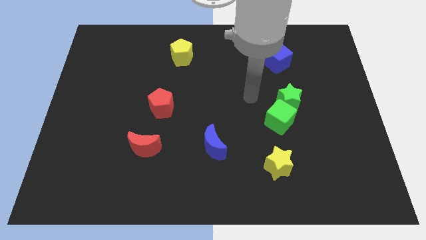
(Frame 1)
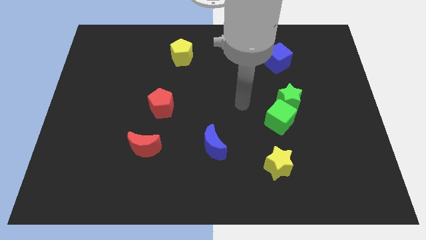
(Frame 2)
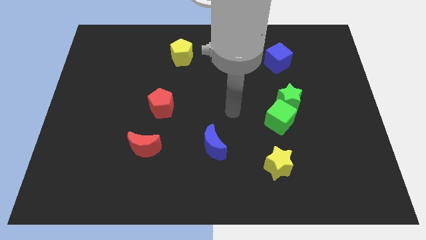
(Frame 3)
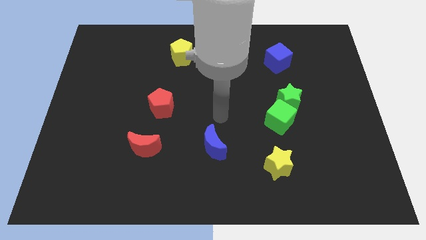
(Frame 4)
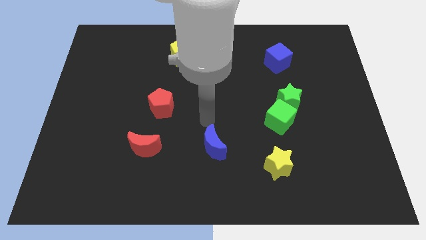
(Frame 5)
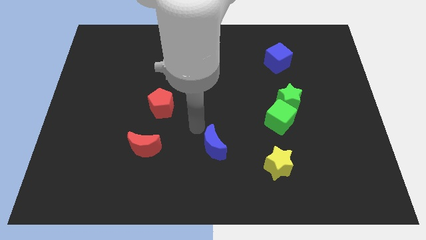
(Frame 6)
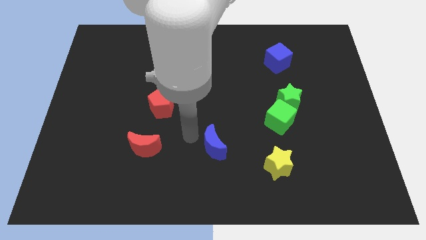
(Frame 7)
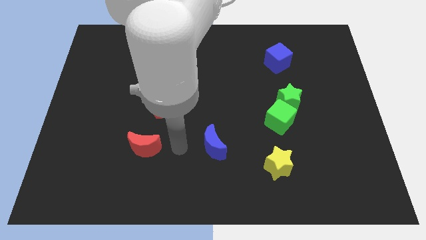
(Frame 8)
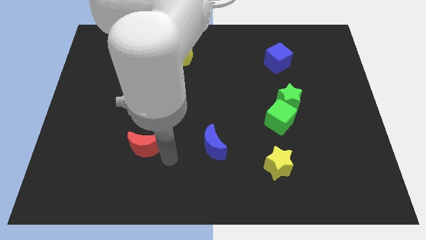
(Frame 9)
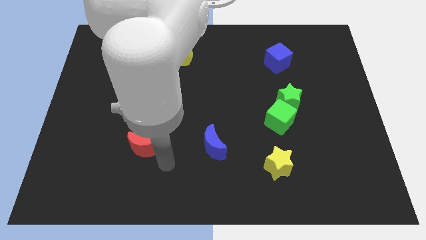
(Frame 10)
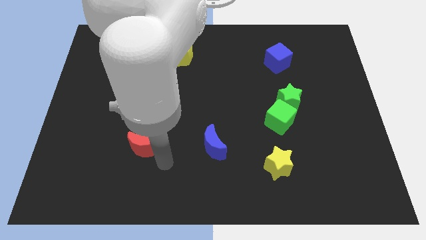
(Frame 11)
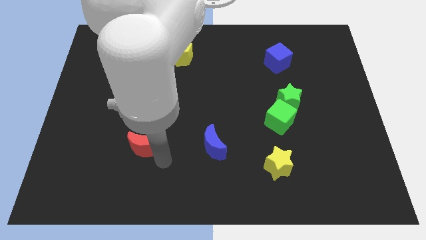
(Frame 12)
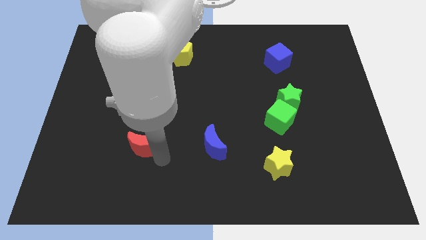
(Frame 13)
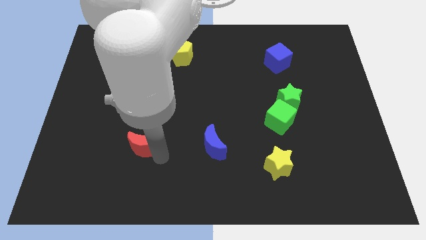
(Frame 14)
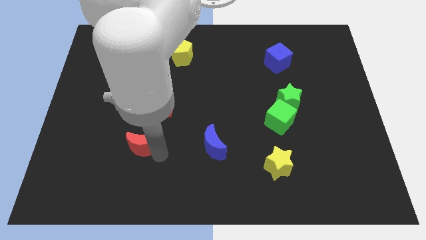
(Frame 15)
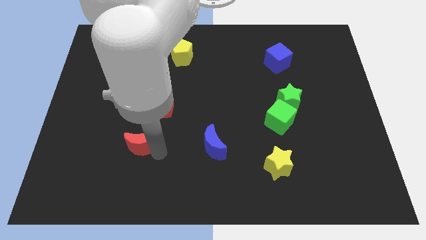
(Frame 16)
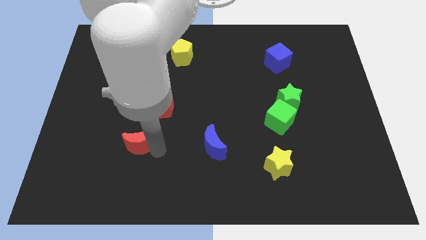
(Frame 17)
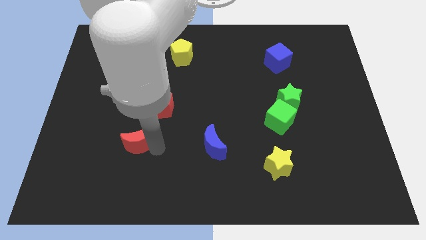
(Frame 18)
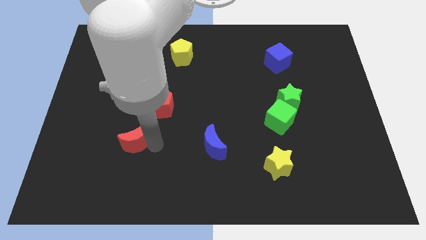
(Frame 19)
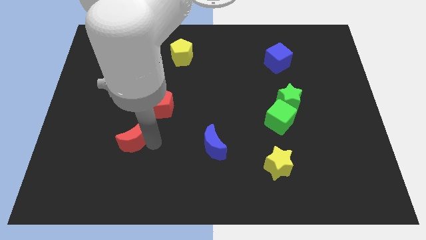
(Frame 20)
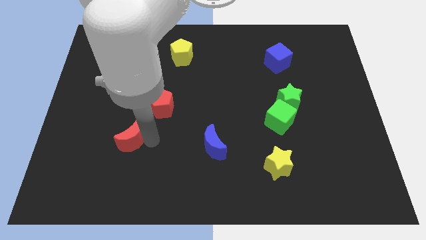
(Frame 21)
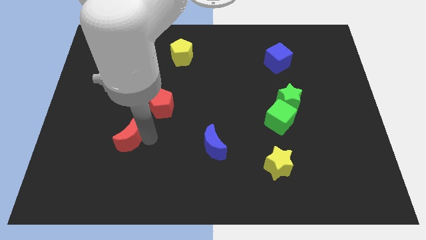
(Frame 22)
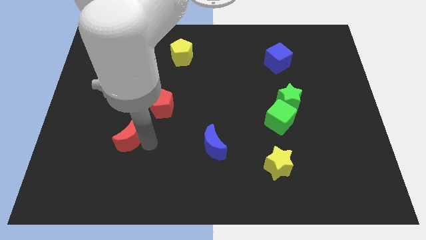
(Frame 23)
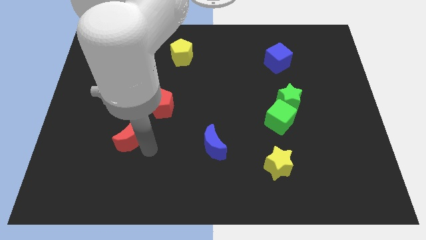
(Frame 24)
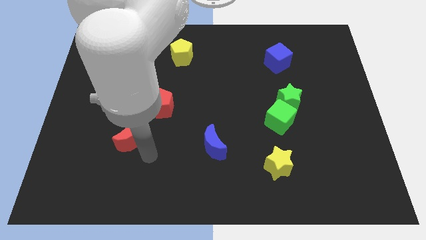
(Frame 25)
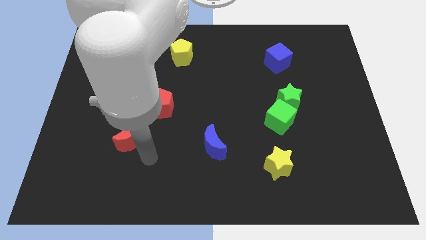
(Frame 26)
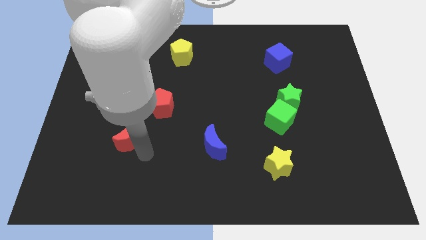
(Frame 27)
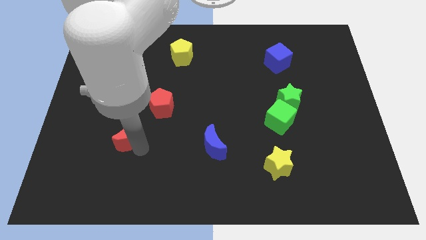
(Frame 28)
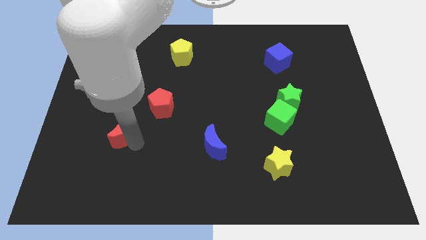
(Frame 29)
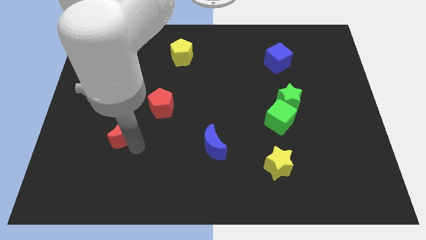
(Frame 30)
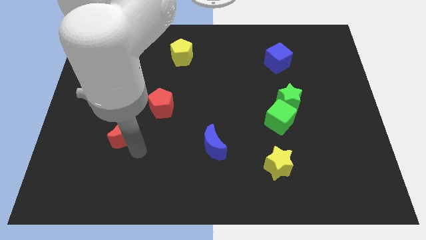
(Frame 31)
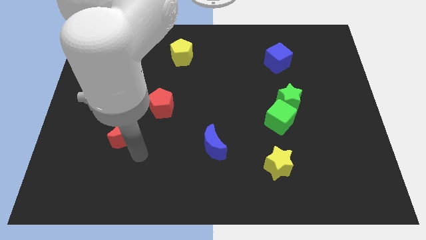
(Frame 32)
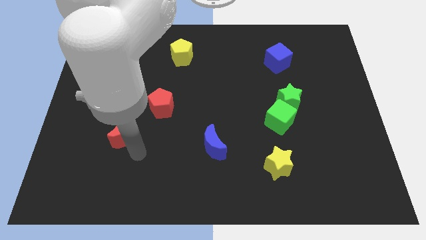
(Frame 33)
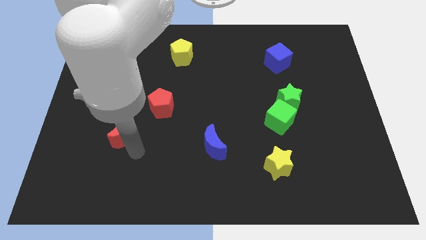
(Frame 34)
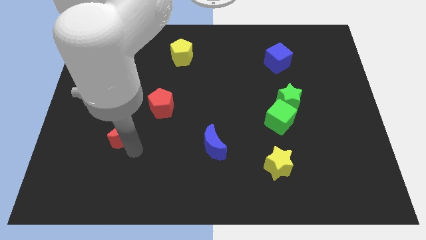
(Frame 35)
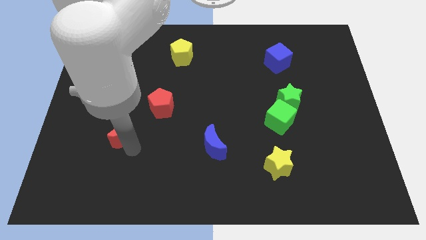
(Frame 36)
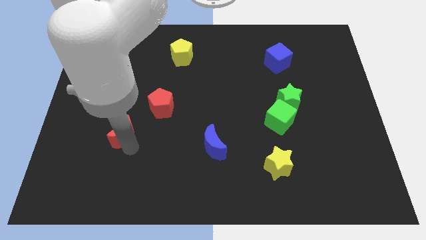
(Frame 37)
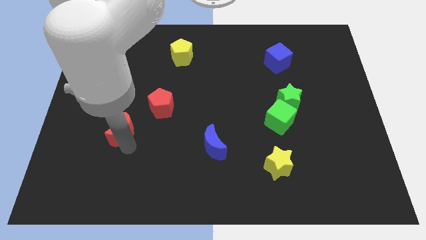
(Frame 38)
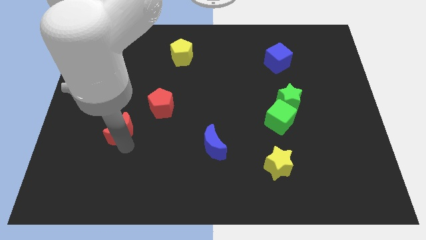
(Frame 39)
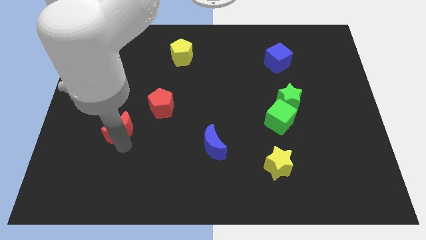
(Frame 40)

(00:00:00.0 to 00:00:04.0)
move the red moon slightly upwards and then to the left

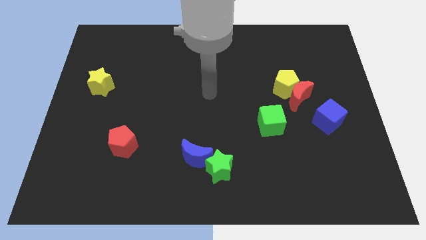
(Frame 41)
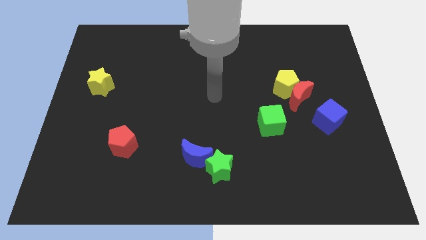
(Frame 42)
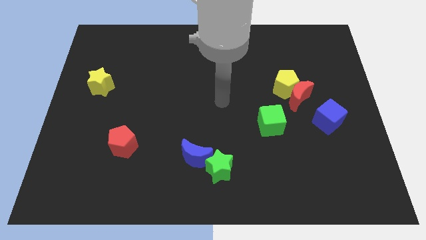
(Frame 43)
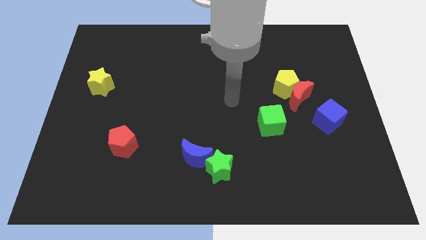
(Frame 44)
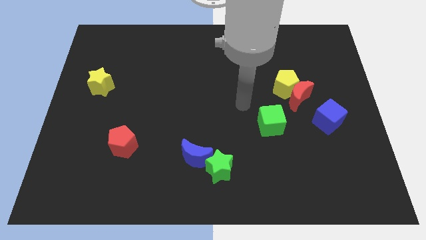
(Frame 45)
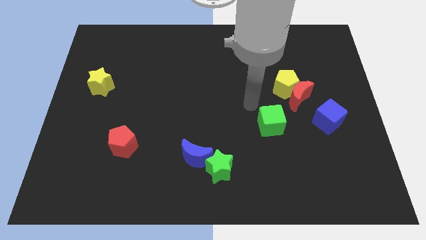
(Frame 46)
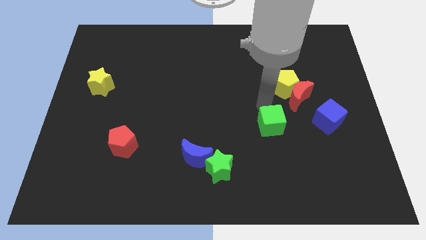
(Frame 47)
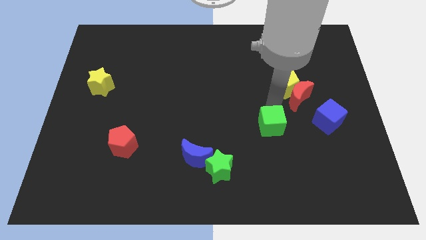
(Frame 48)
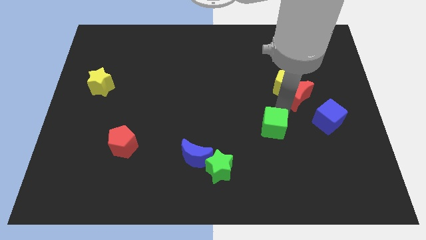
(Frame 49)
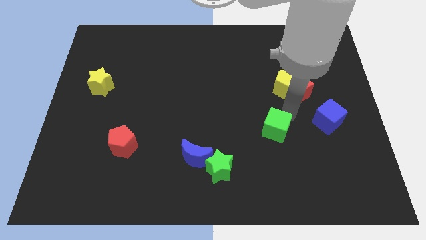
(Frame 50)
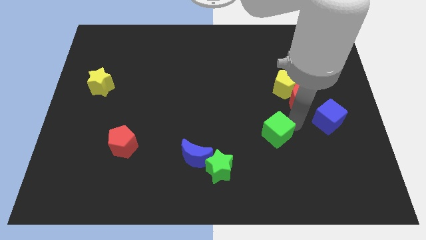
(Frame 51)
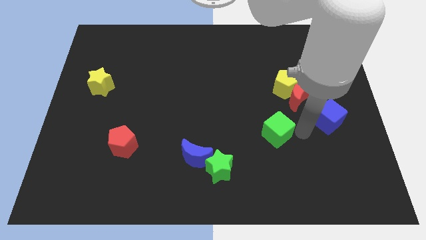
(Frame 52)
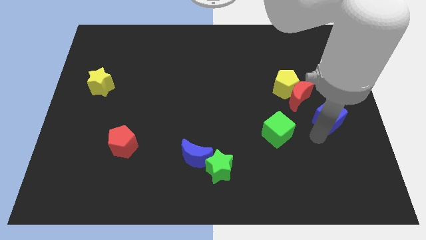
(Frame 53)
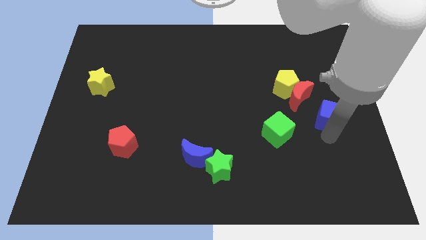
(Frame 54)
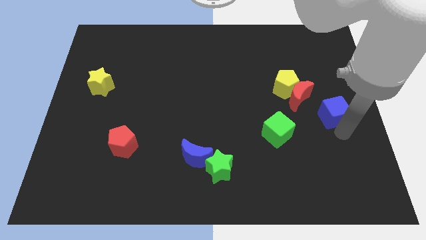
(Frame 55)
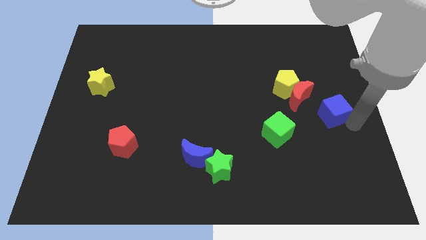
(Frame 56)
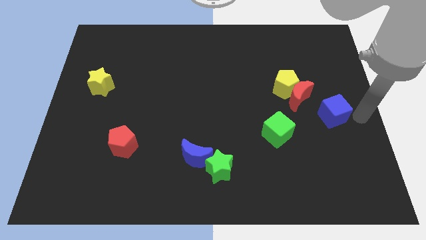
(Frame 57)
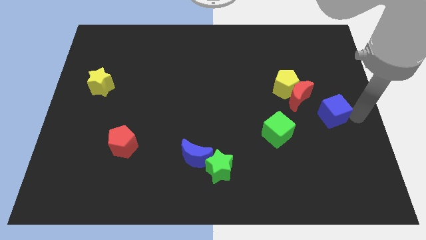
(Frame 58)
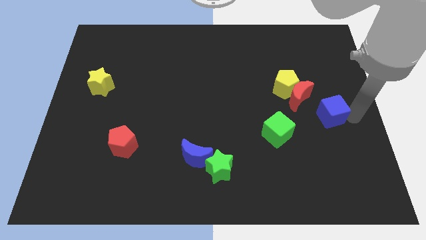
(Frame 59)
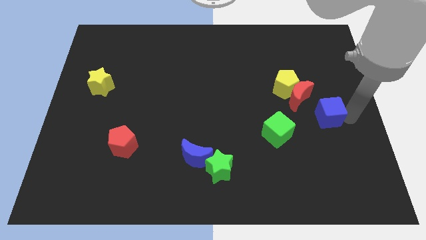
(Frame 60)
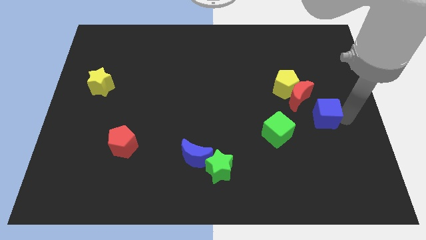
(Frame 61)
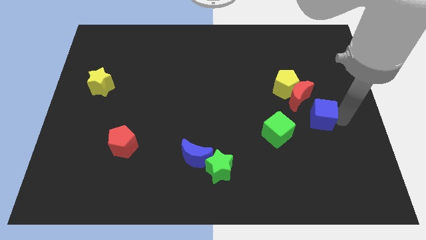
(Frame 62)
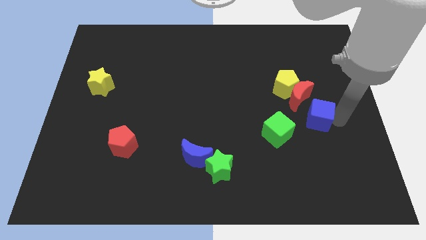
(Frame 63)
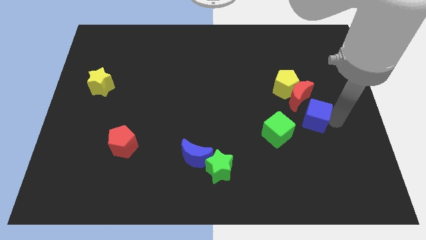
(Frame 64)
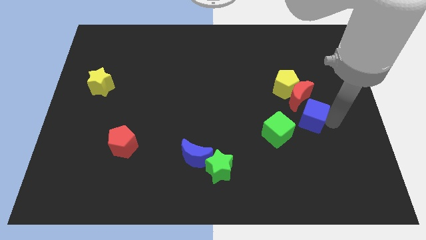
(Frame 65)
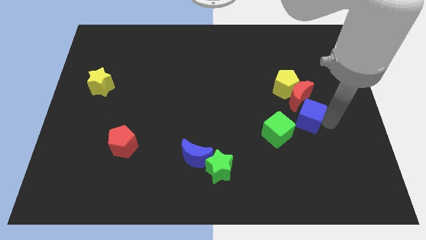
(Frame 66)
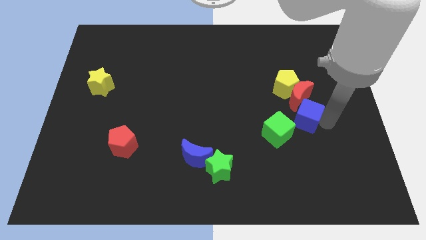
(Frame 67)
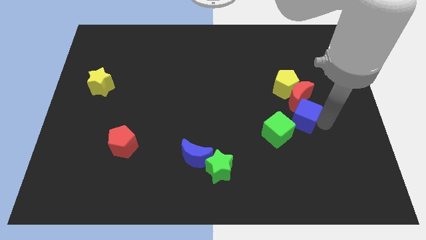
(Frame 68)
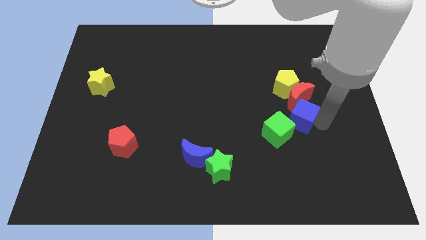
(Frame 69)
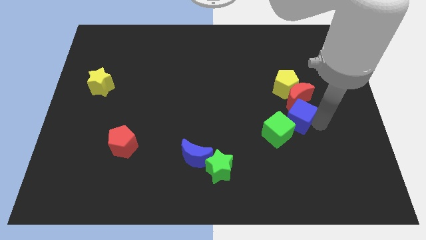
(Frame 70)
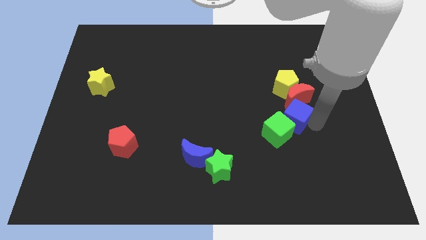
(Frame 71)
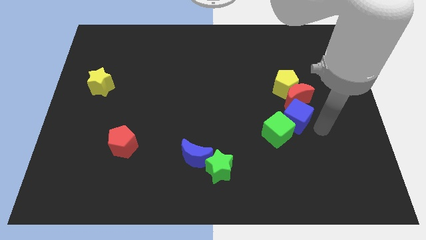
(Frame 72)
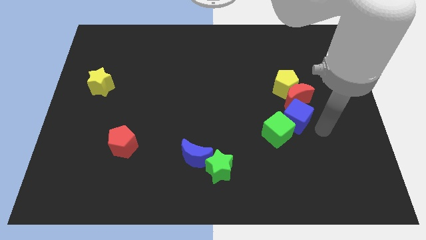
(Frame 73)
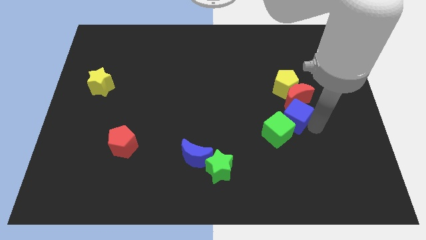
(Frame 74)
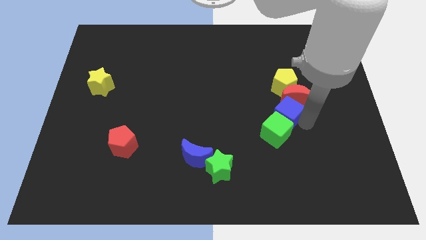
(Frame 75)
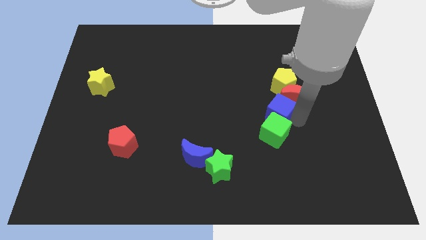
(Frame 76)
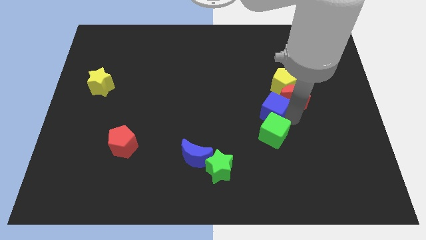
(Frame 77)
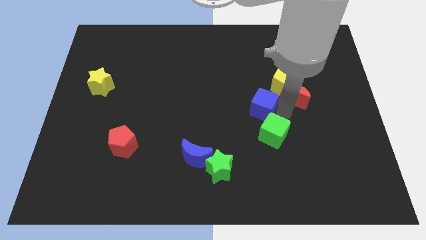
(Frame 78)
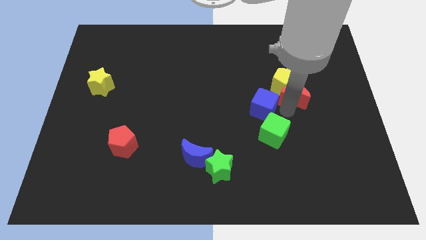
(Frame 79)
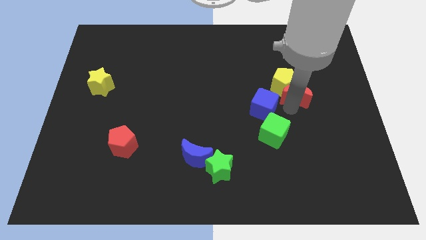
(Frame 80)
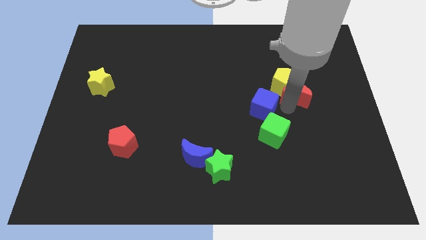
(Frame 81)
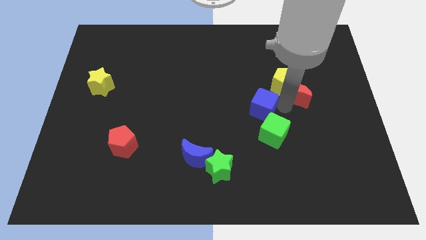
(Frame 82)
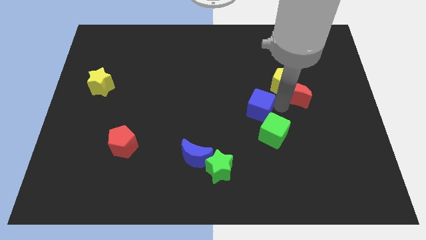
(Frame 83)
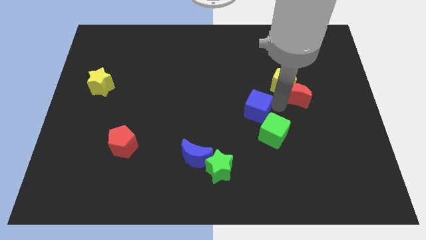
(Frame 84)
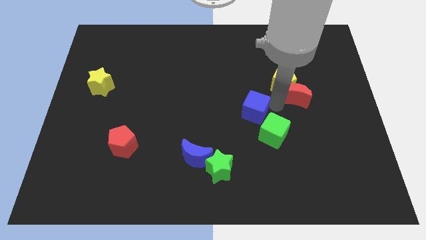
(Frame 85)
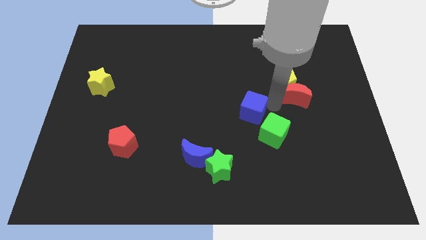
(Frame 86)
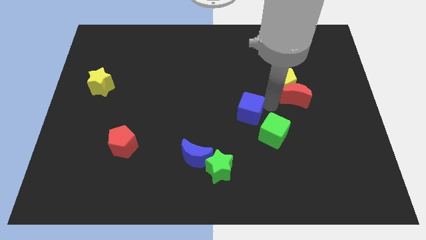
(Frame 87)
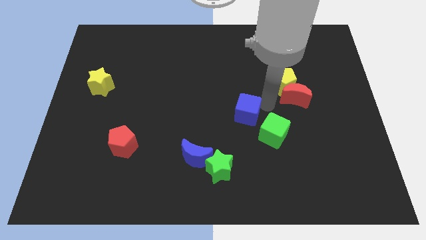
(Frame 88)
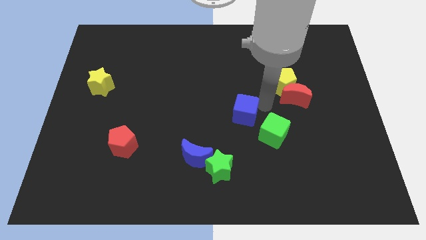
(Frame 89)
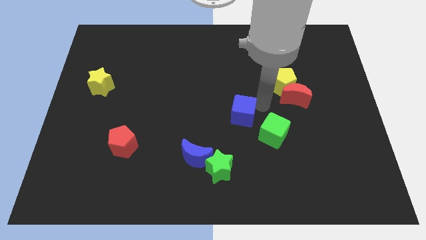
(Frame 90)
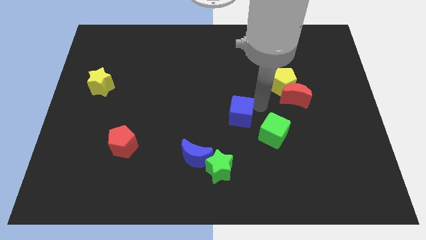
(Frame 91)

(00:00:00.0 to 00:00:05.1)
move the blue cube to the left
